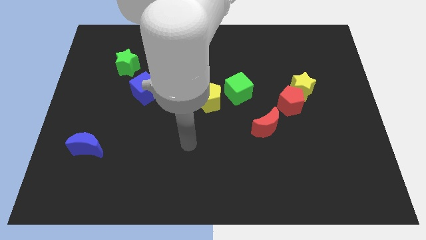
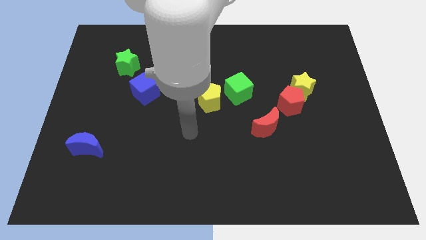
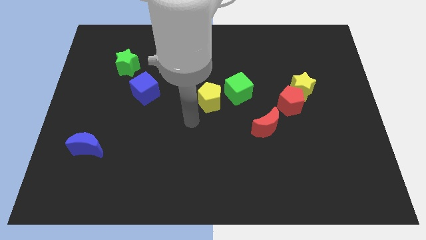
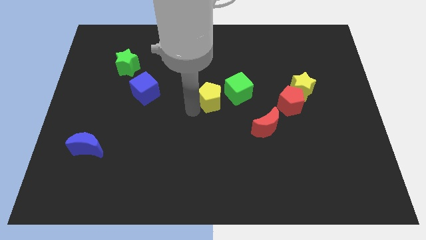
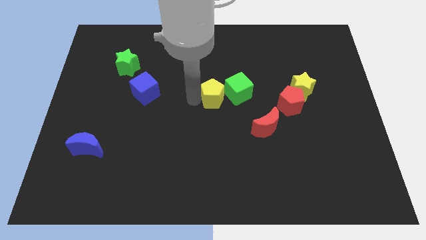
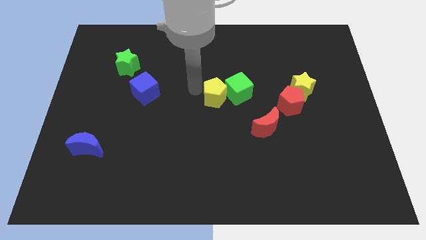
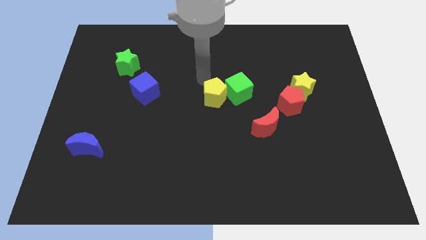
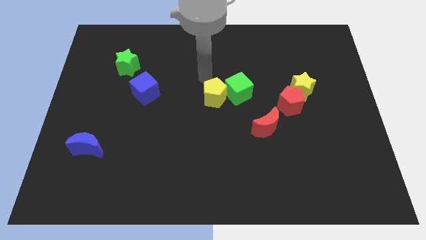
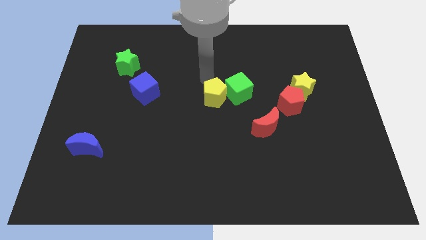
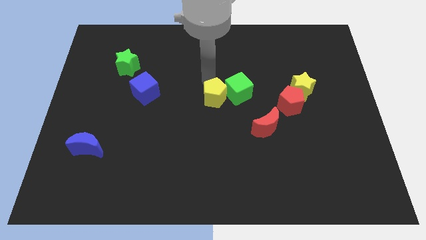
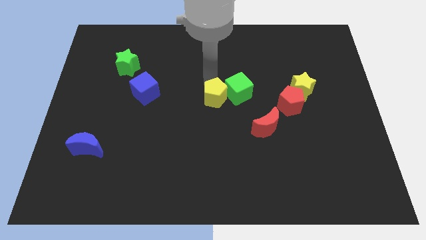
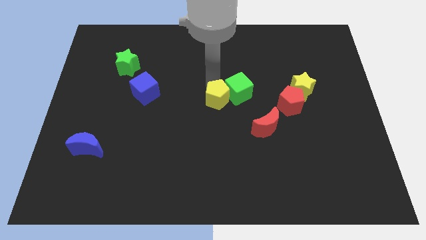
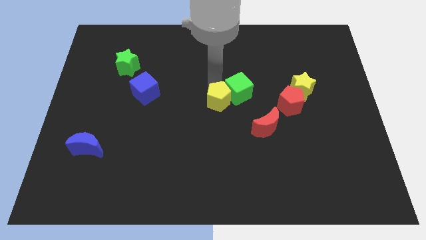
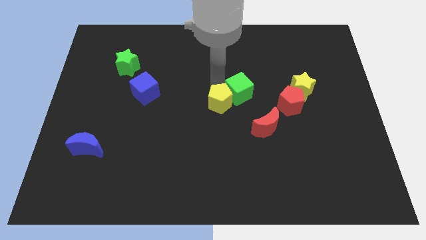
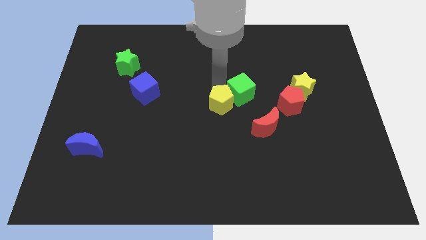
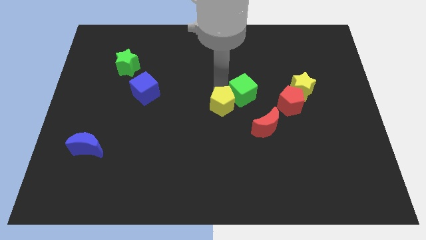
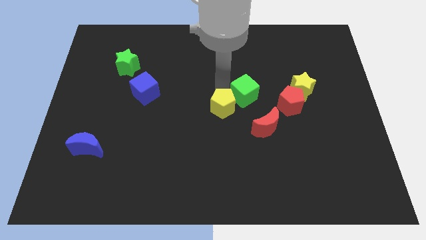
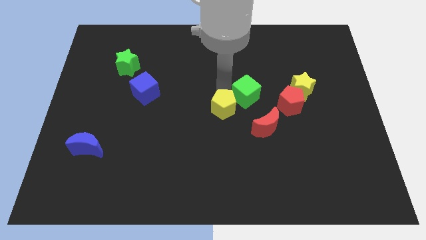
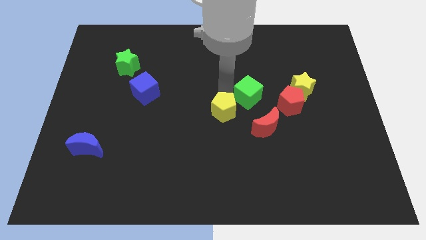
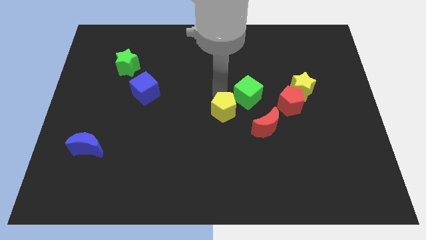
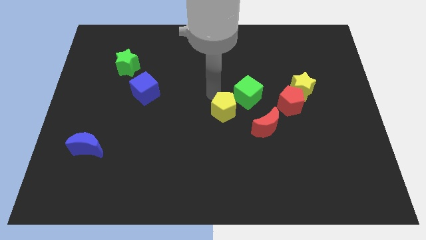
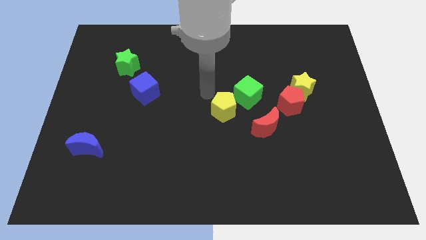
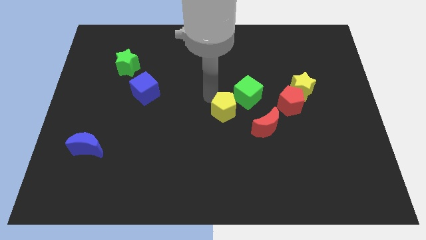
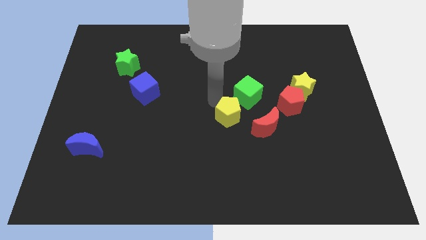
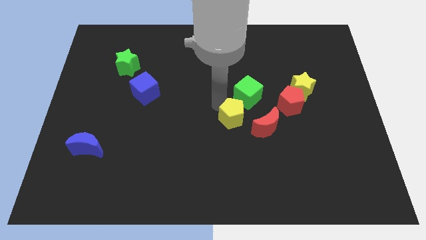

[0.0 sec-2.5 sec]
slightly move the yellow pentagon down and then right

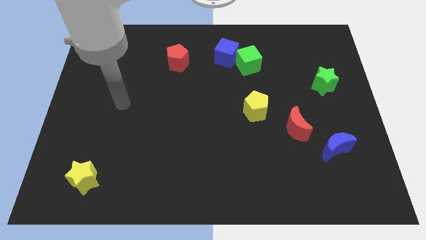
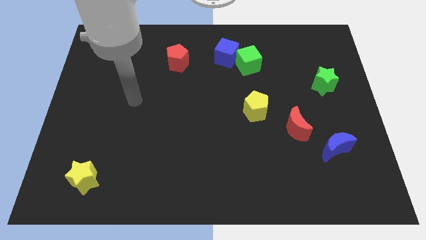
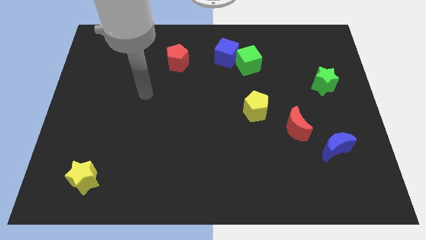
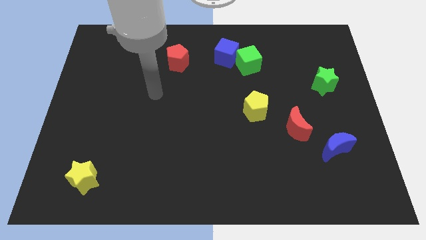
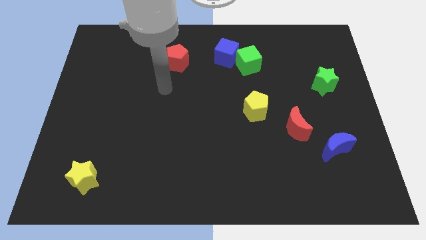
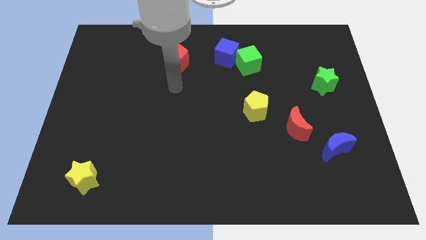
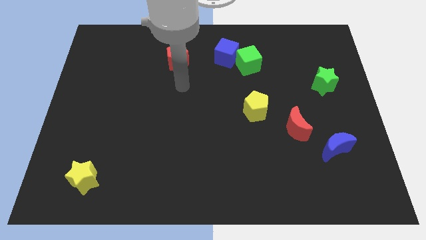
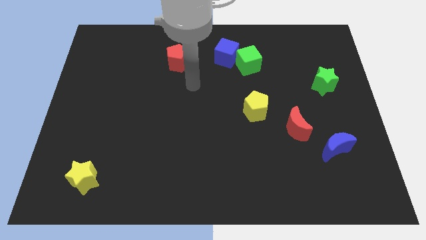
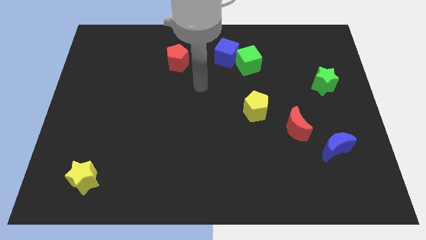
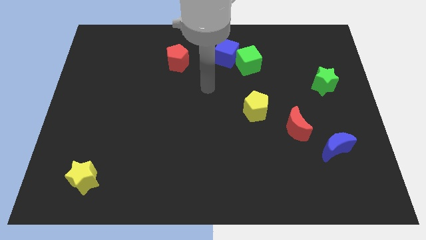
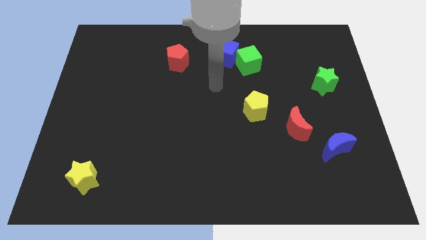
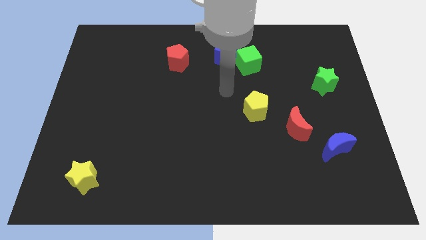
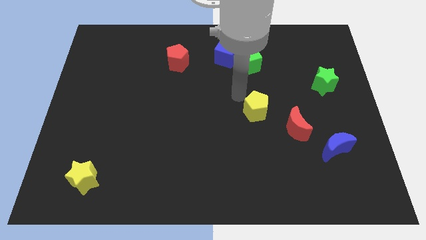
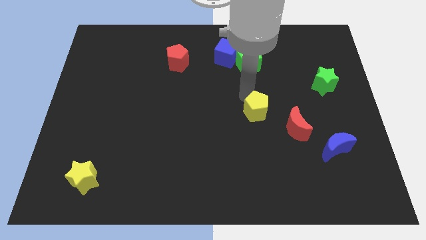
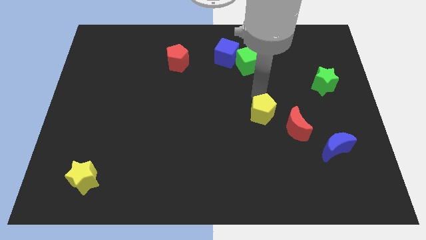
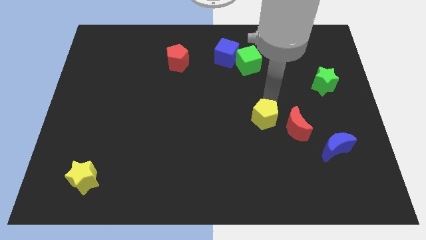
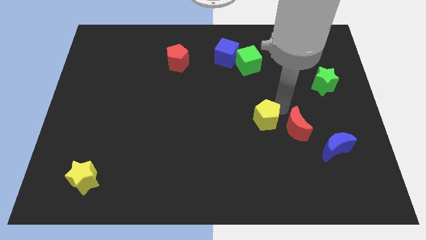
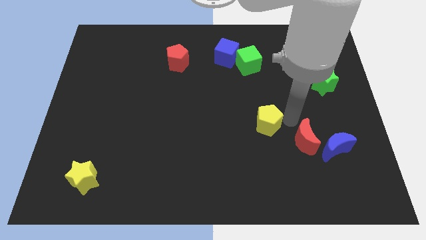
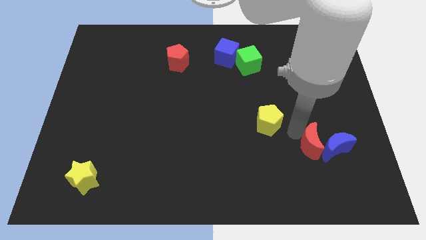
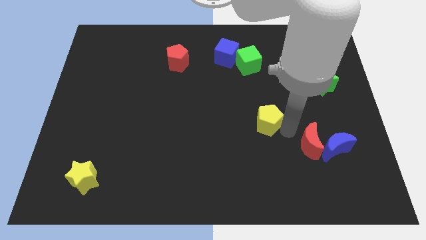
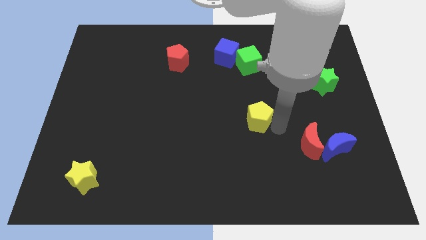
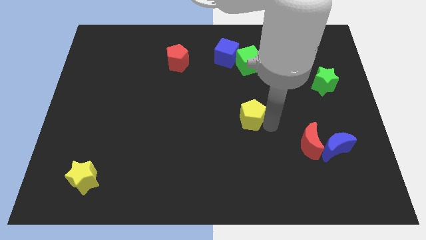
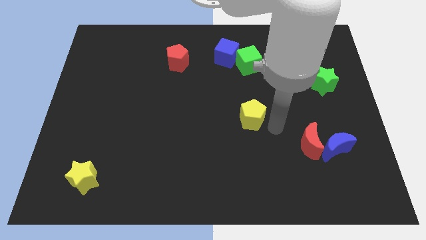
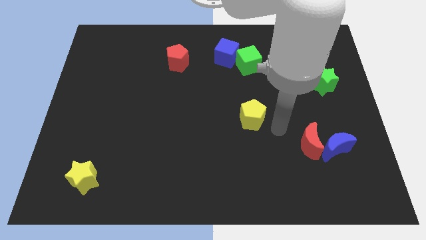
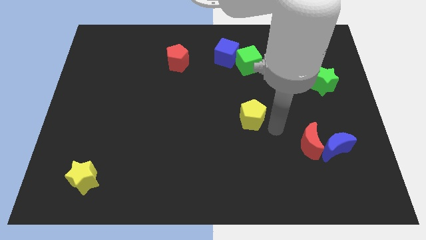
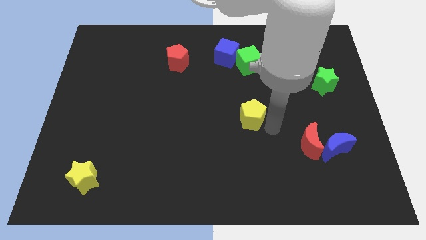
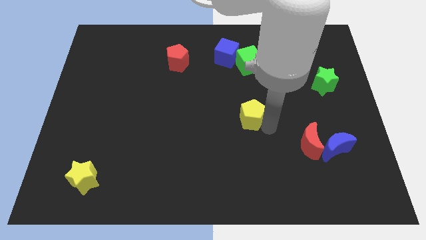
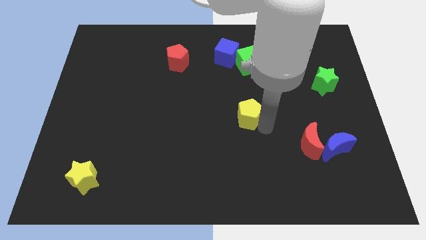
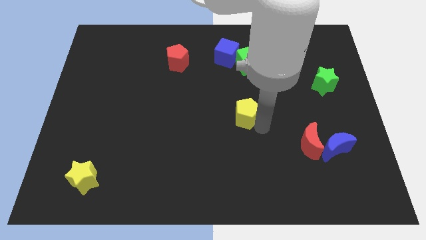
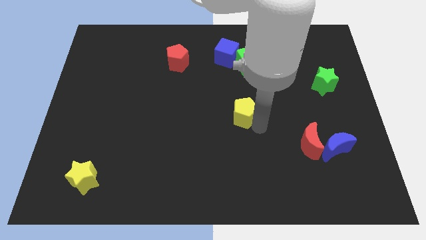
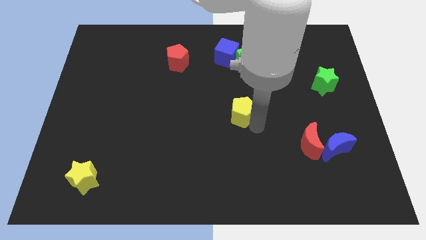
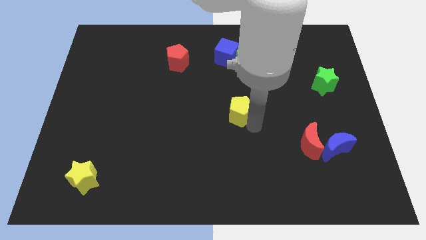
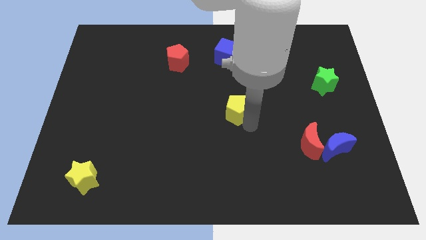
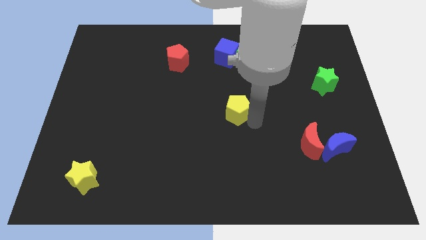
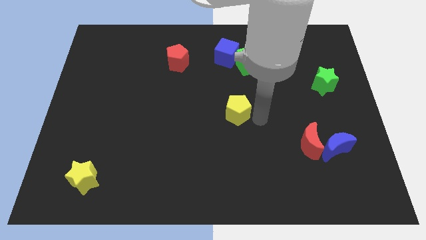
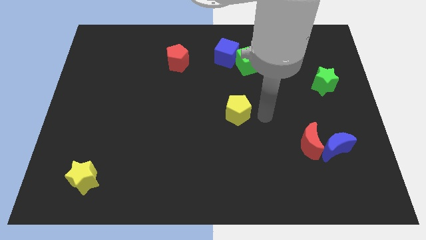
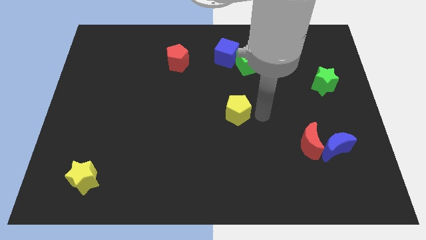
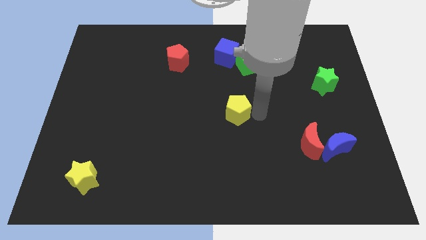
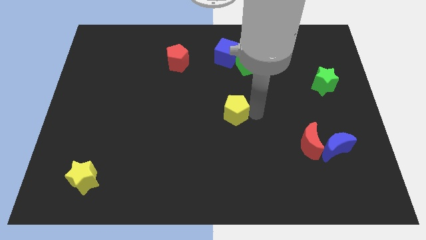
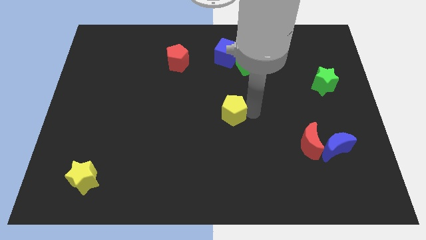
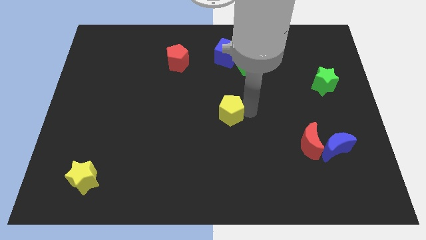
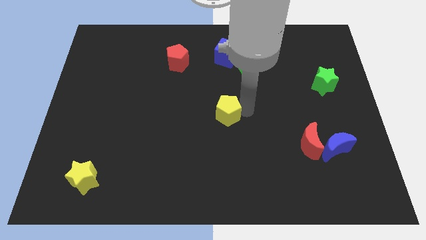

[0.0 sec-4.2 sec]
slightly move the yellow pentagon left

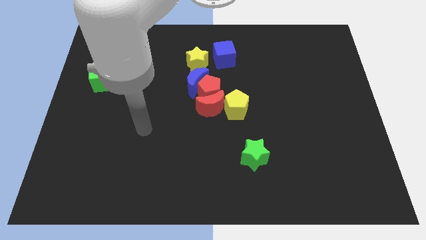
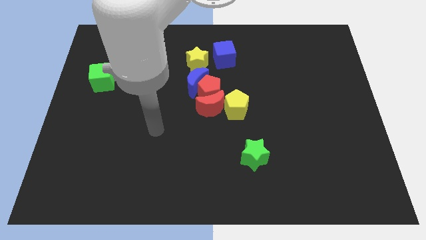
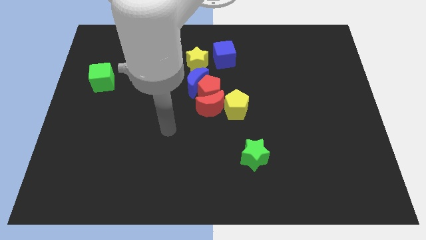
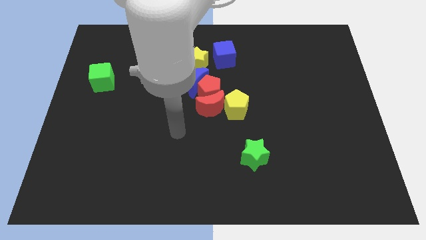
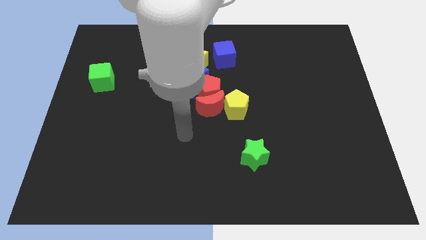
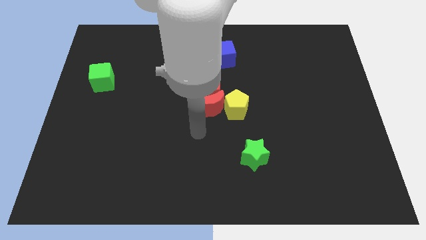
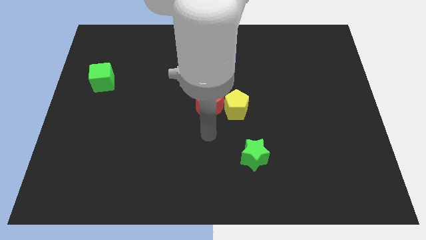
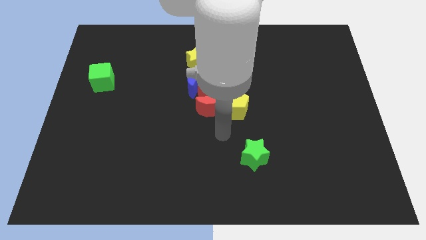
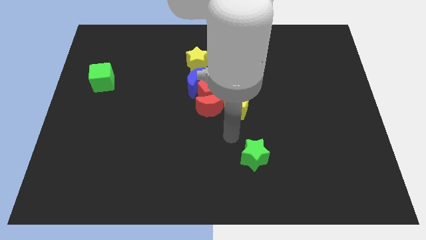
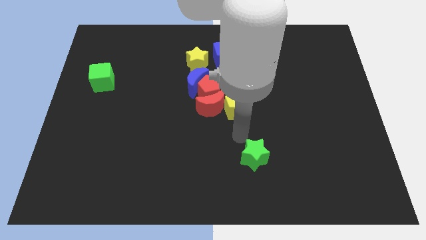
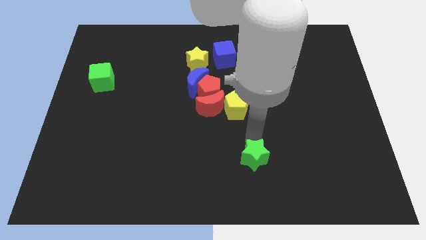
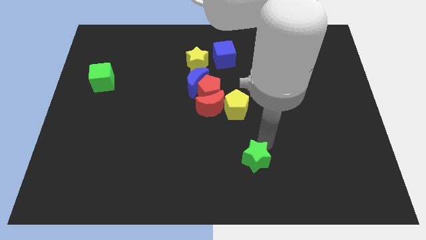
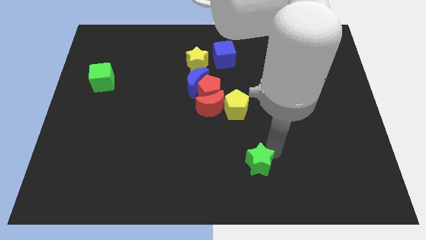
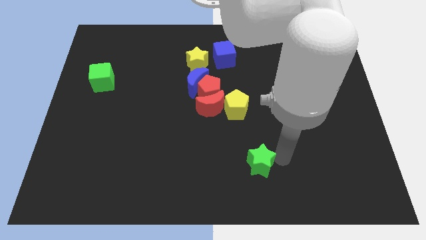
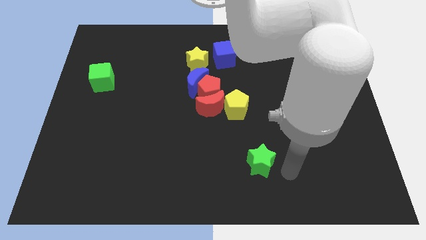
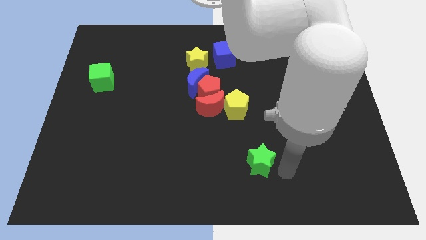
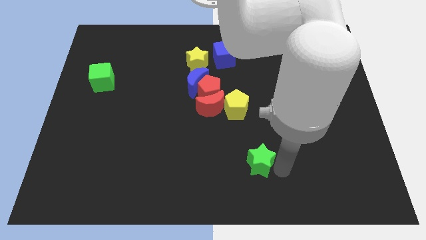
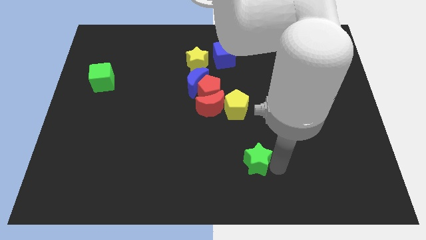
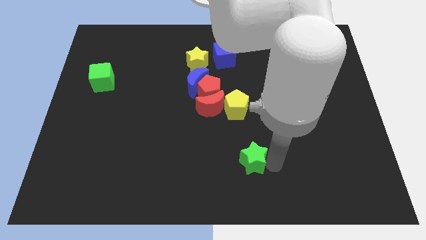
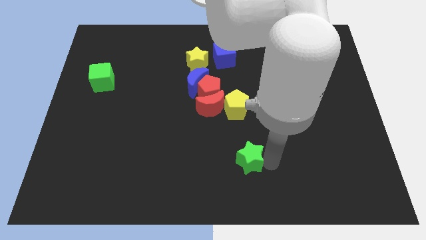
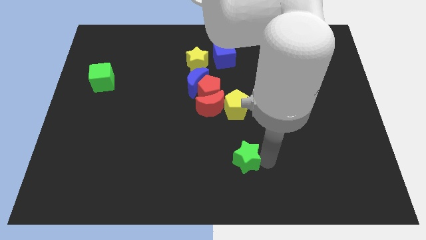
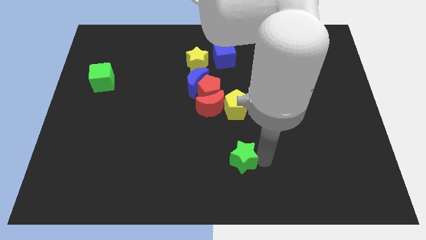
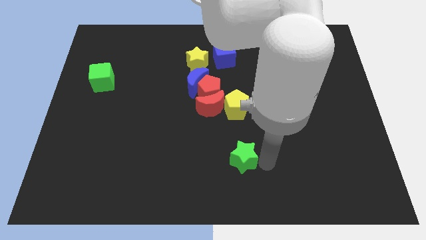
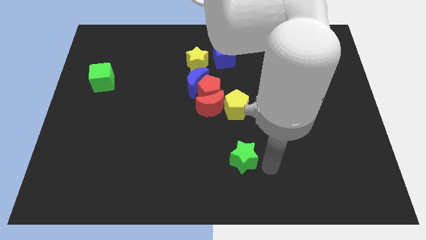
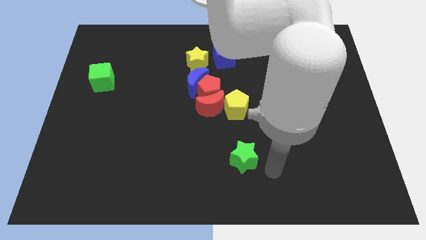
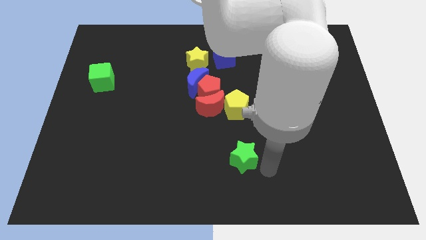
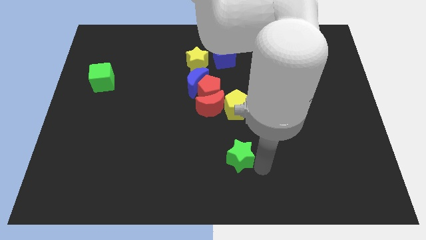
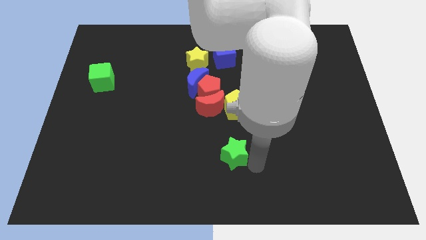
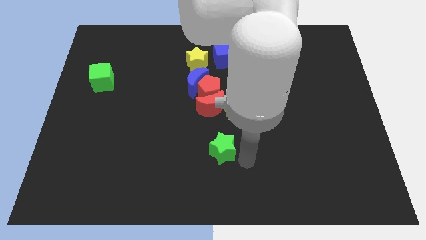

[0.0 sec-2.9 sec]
move the green star a bit left
